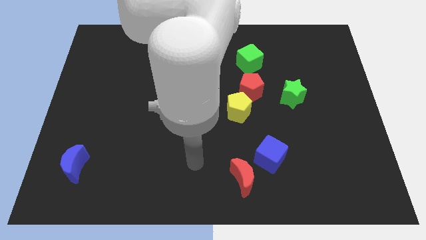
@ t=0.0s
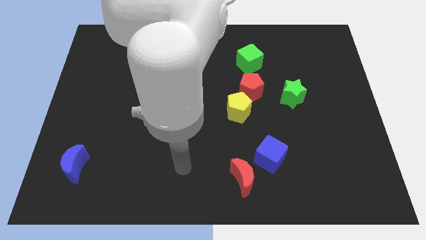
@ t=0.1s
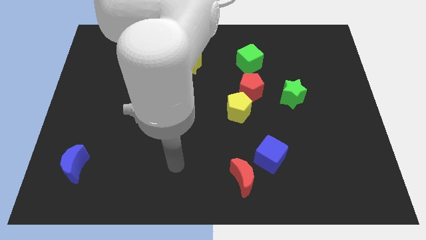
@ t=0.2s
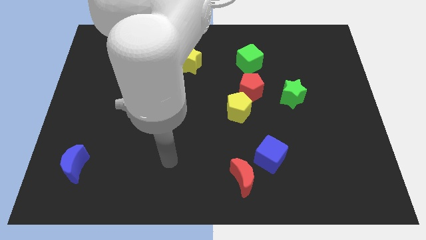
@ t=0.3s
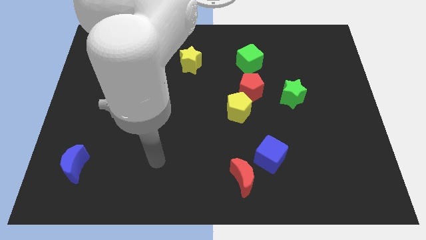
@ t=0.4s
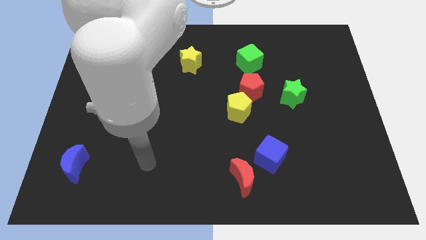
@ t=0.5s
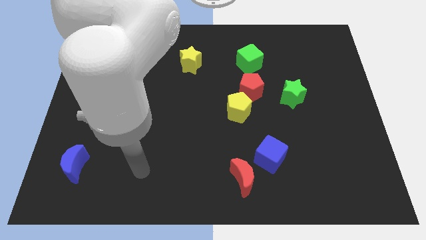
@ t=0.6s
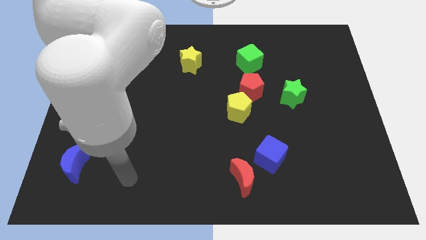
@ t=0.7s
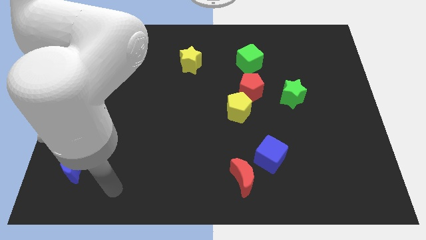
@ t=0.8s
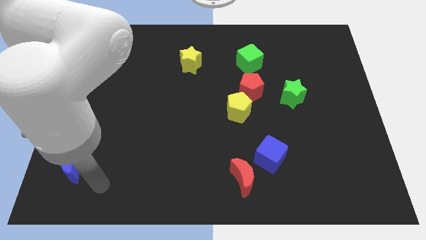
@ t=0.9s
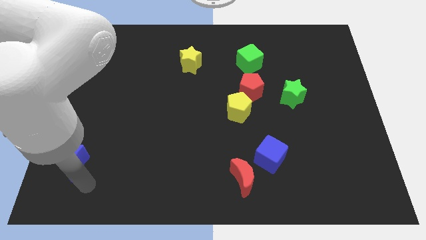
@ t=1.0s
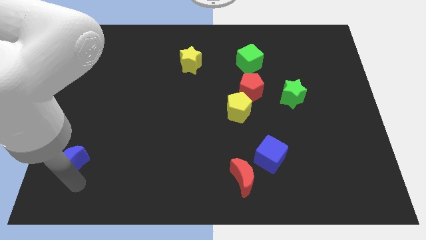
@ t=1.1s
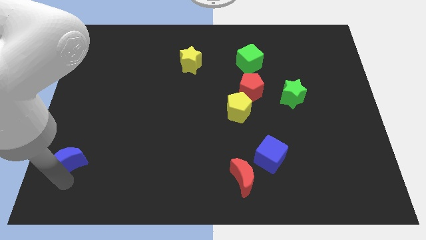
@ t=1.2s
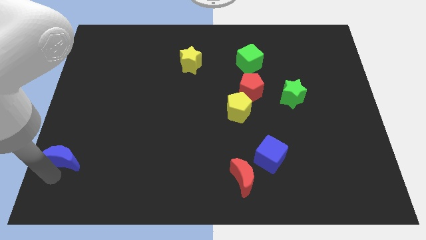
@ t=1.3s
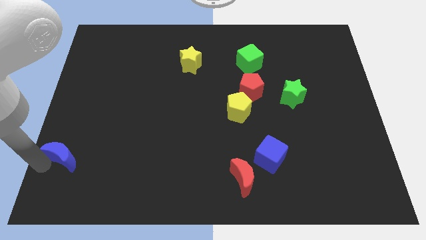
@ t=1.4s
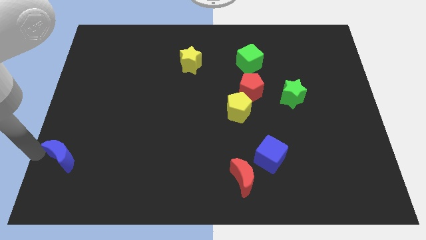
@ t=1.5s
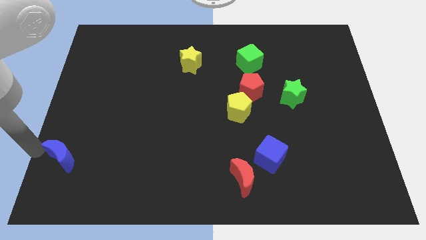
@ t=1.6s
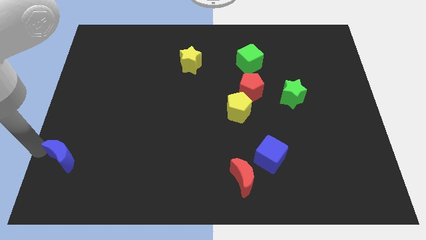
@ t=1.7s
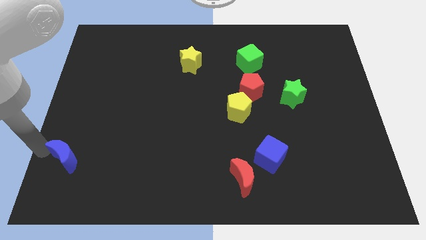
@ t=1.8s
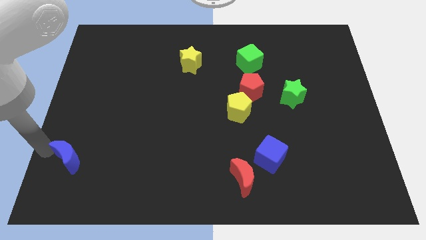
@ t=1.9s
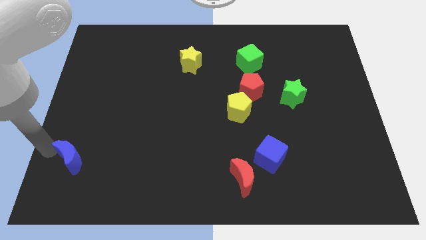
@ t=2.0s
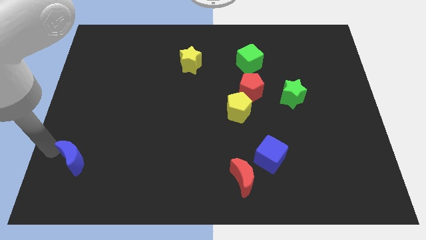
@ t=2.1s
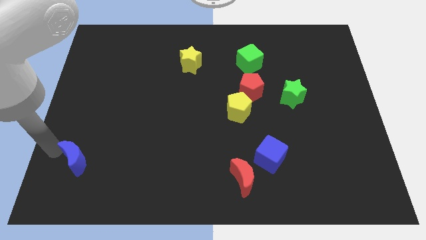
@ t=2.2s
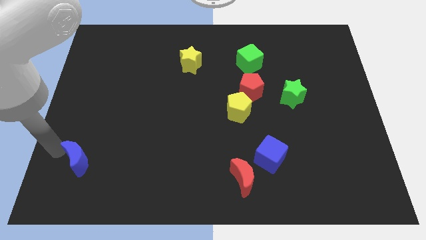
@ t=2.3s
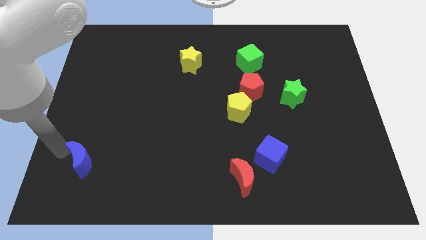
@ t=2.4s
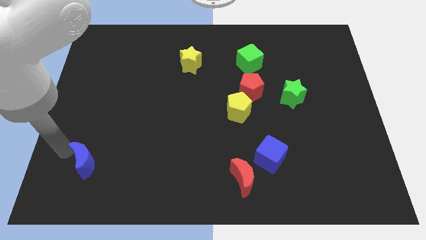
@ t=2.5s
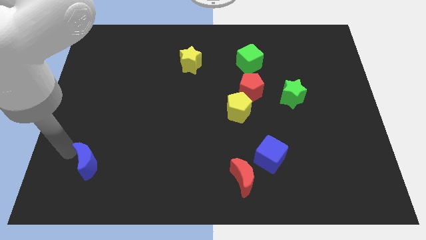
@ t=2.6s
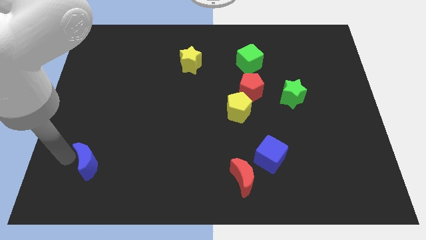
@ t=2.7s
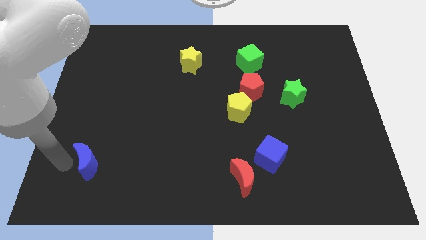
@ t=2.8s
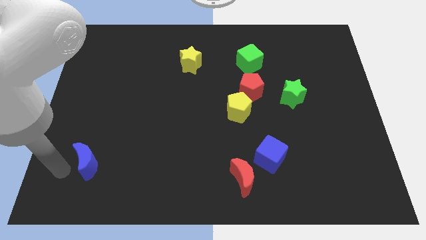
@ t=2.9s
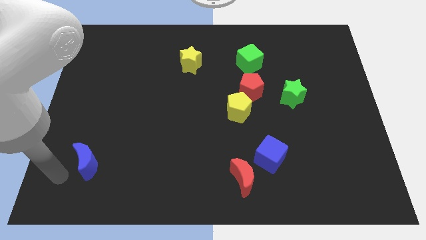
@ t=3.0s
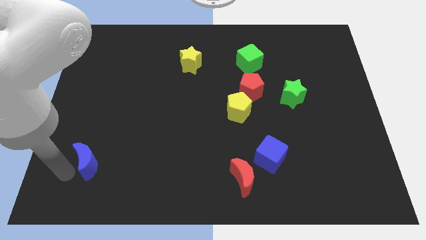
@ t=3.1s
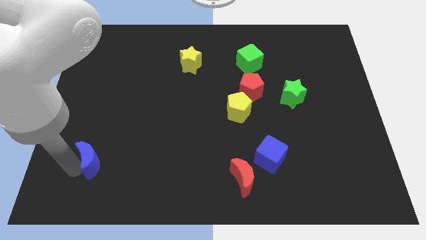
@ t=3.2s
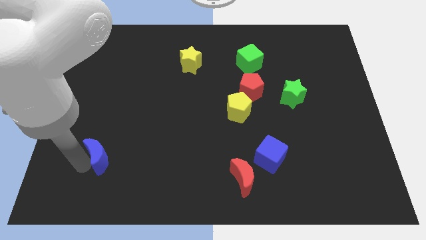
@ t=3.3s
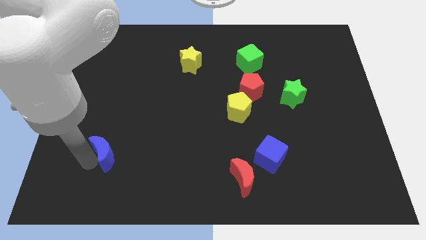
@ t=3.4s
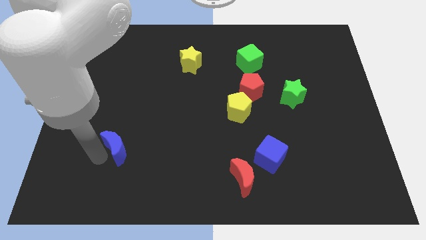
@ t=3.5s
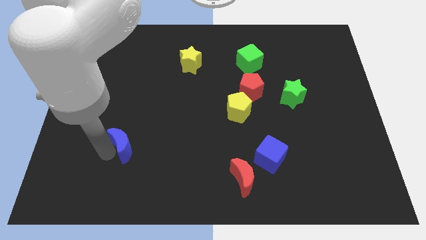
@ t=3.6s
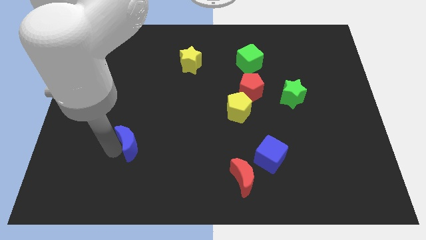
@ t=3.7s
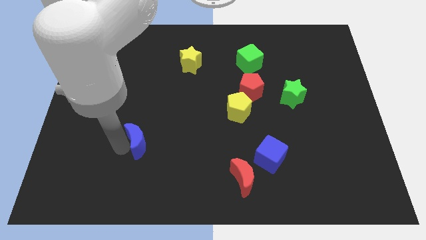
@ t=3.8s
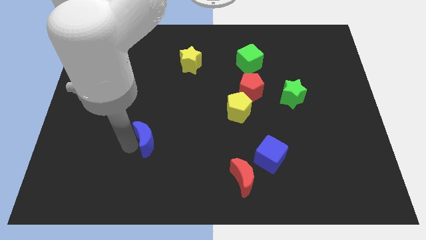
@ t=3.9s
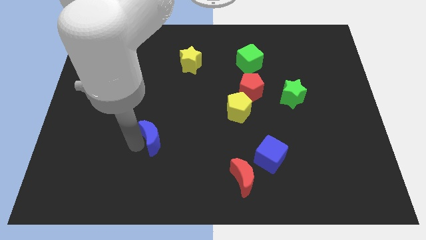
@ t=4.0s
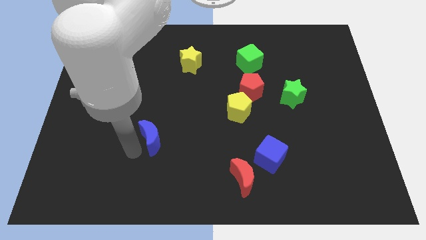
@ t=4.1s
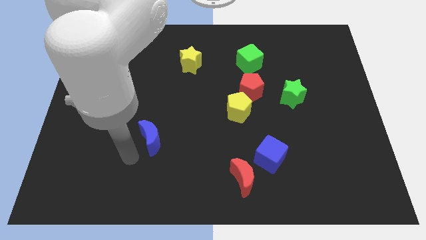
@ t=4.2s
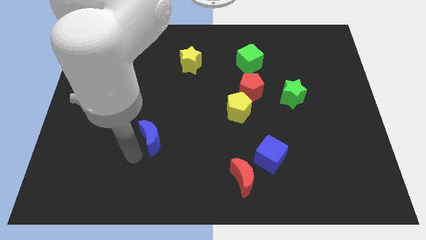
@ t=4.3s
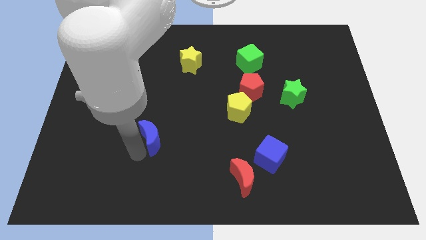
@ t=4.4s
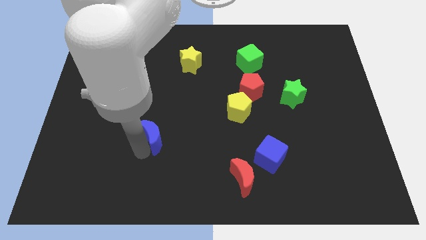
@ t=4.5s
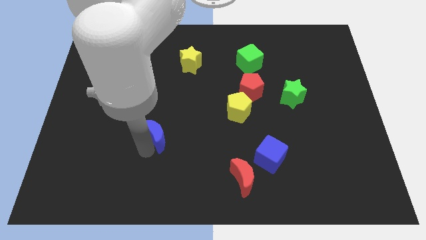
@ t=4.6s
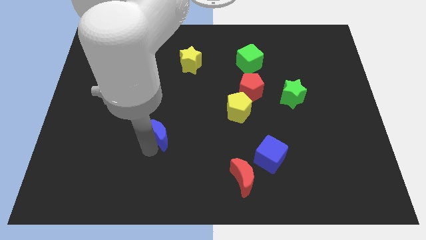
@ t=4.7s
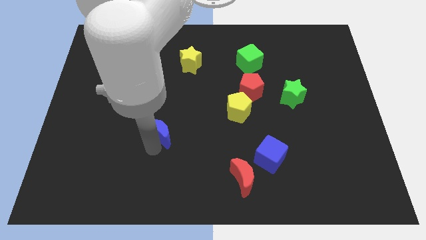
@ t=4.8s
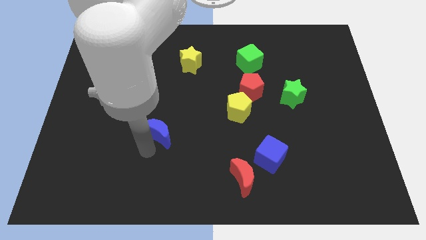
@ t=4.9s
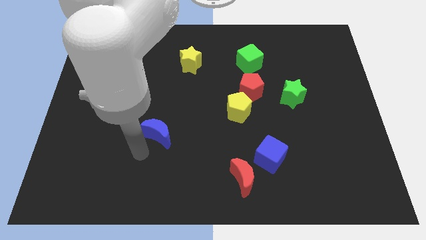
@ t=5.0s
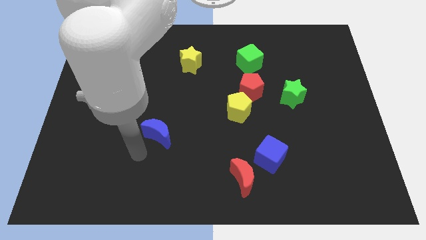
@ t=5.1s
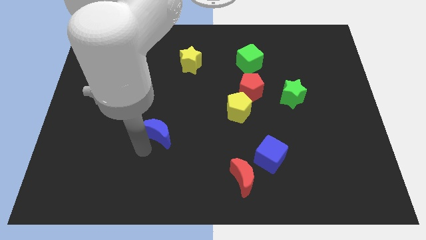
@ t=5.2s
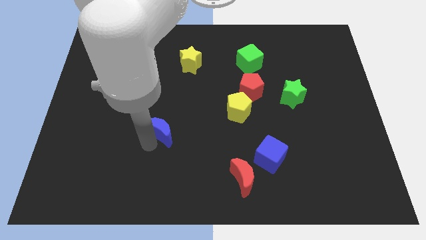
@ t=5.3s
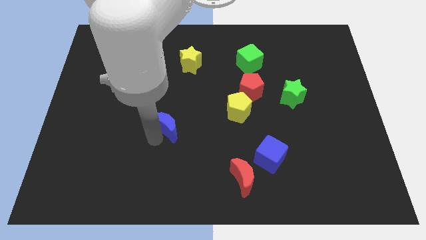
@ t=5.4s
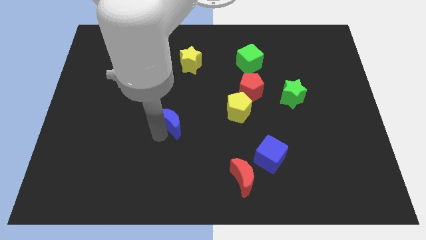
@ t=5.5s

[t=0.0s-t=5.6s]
slide the blue moon to the center of the board
